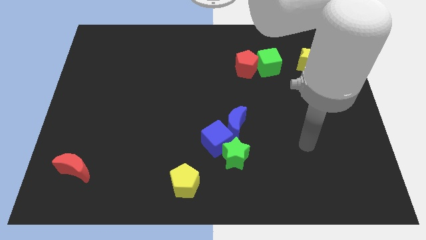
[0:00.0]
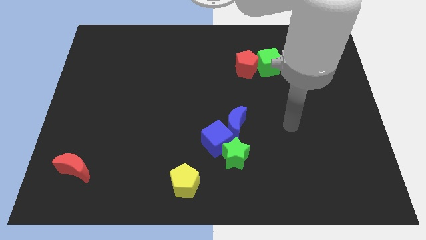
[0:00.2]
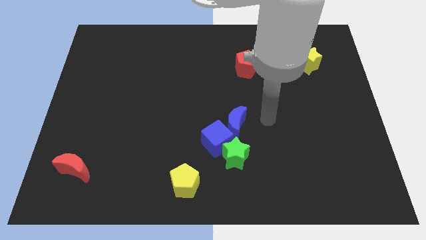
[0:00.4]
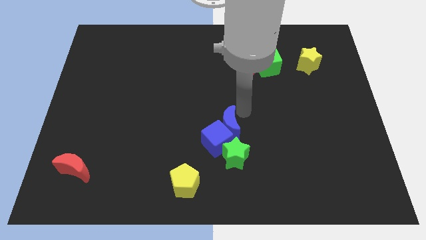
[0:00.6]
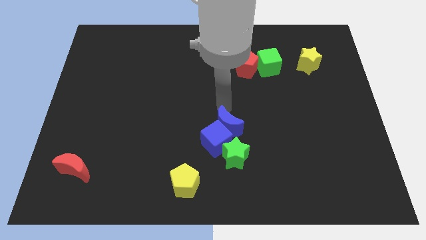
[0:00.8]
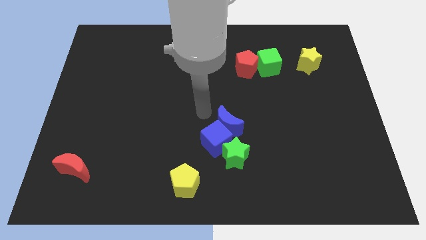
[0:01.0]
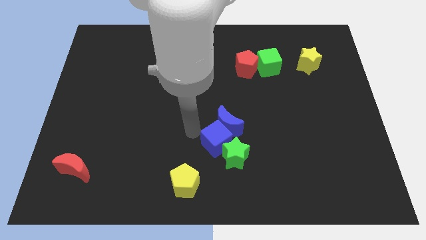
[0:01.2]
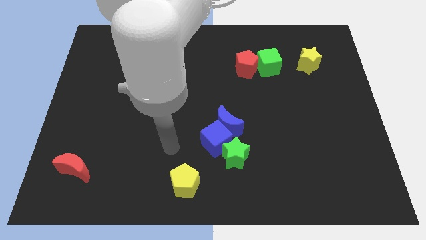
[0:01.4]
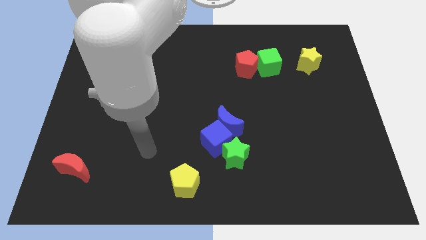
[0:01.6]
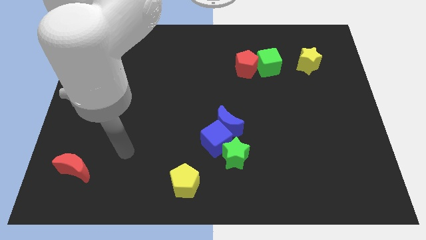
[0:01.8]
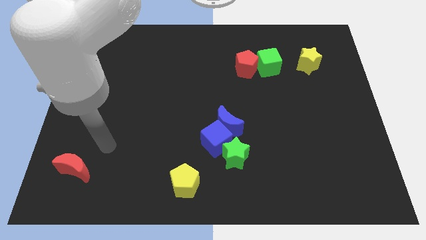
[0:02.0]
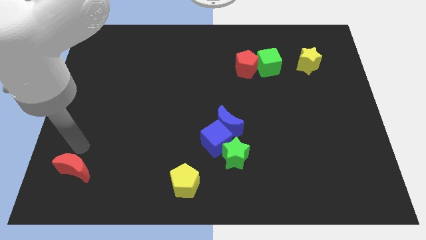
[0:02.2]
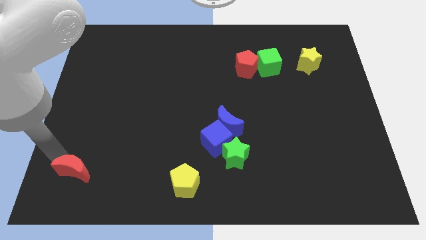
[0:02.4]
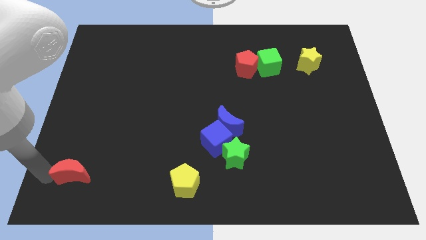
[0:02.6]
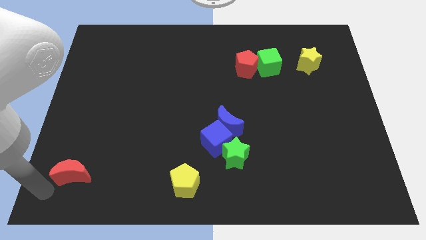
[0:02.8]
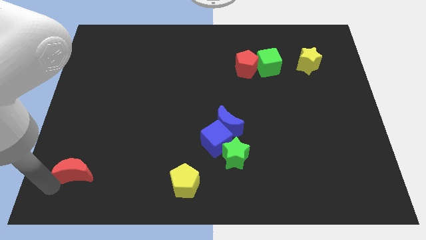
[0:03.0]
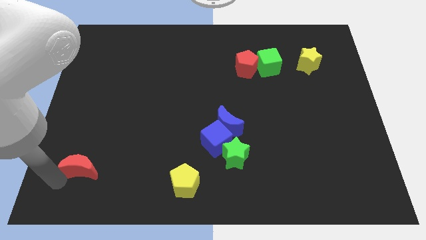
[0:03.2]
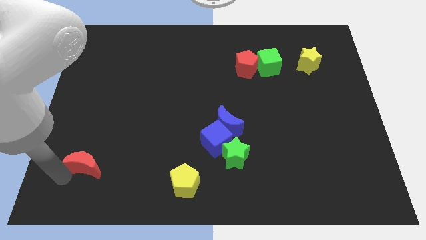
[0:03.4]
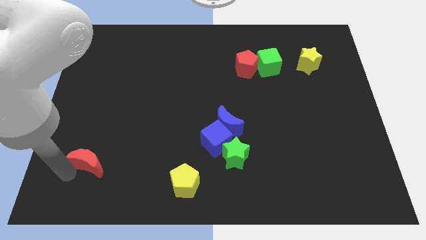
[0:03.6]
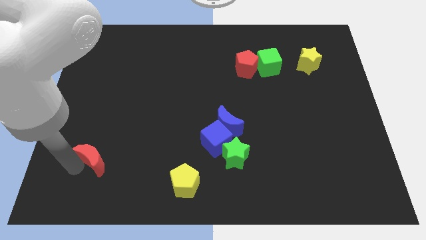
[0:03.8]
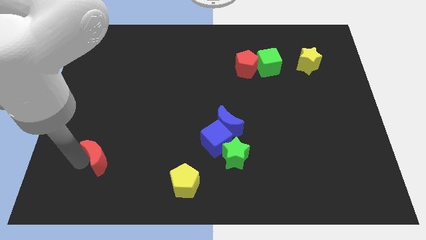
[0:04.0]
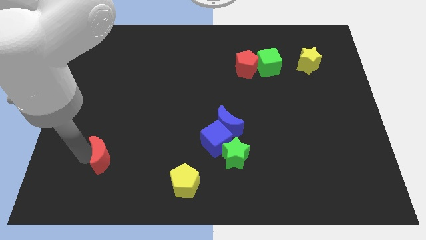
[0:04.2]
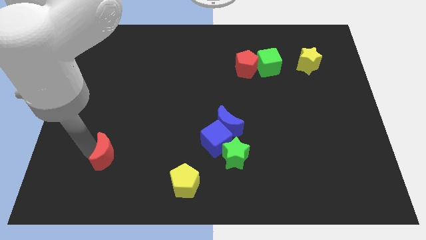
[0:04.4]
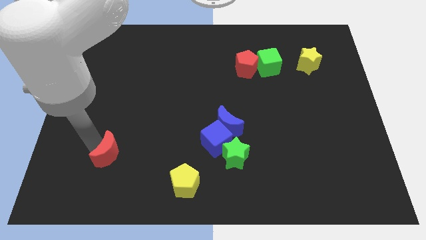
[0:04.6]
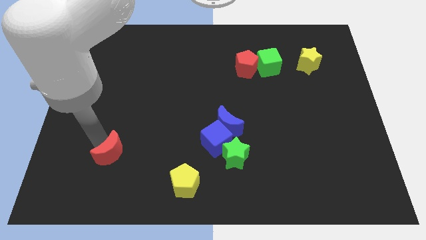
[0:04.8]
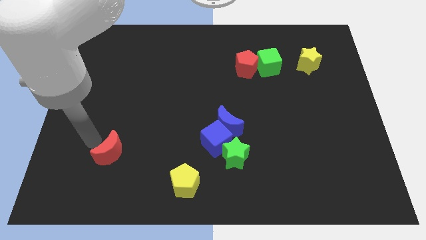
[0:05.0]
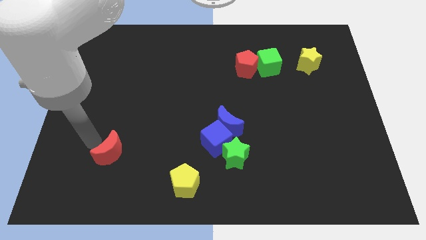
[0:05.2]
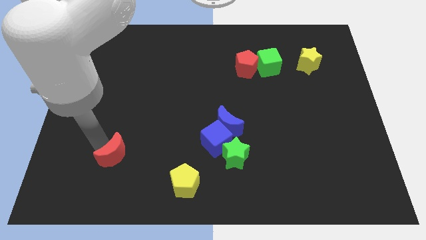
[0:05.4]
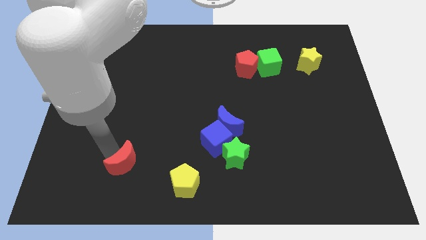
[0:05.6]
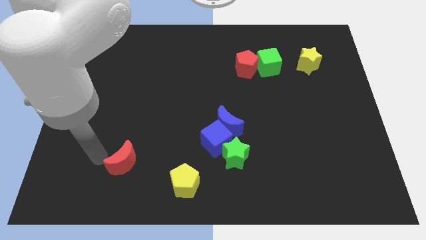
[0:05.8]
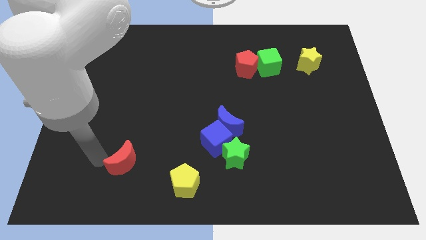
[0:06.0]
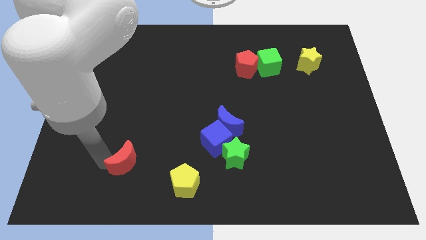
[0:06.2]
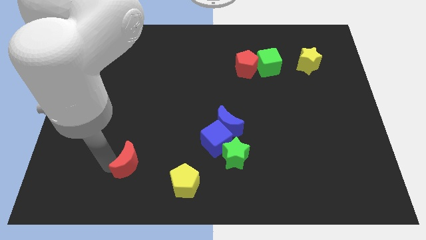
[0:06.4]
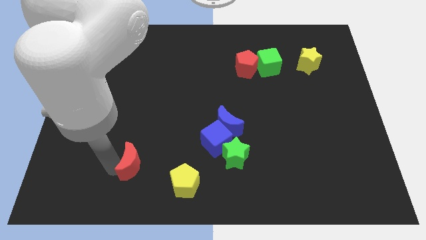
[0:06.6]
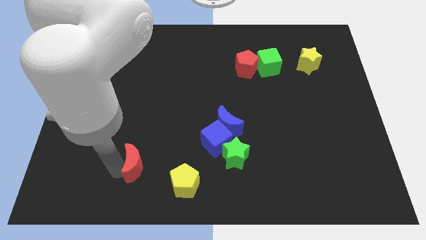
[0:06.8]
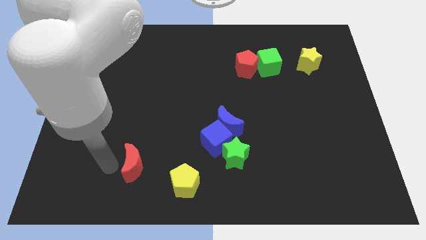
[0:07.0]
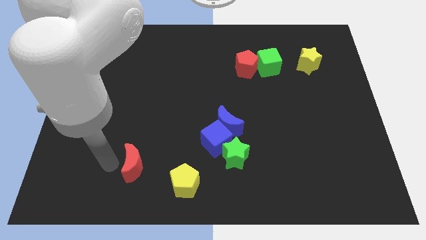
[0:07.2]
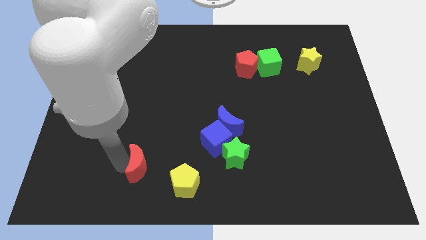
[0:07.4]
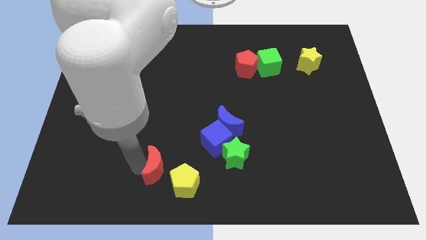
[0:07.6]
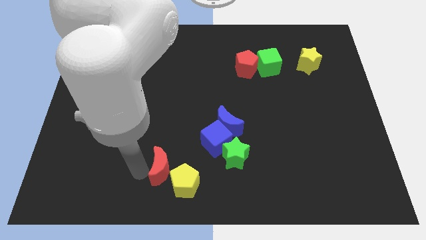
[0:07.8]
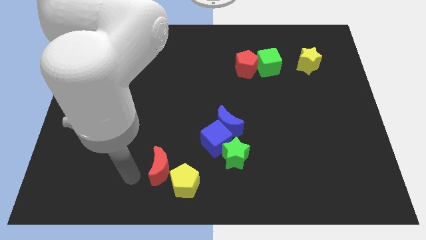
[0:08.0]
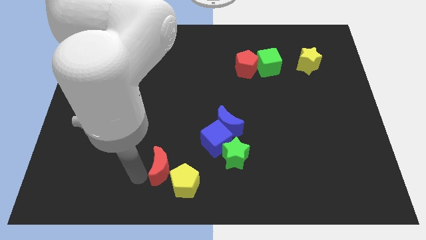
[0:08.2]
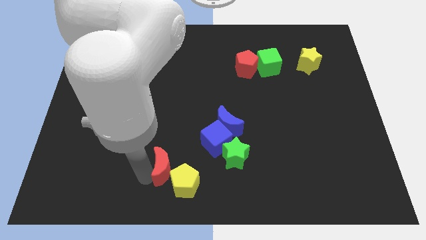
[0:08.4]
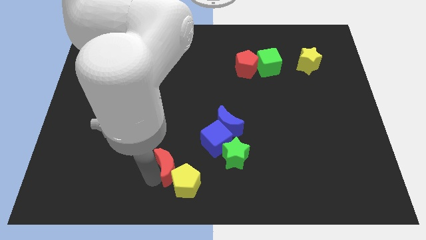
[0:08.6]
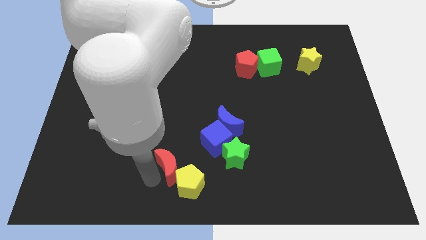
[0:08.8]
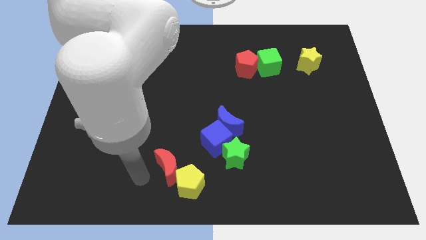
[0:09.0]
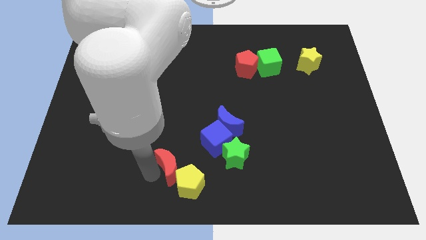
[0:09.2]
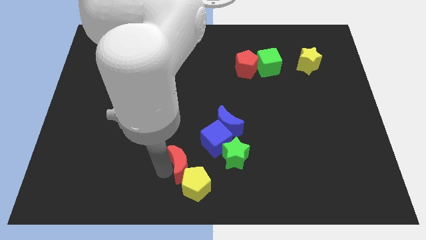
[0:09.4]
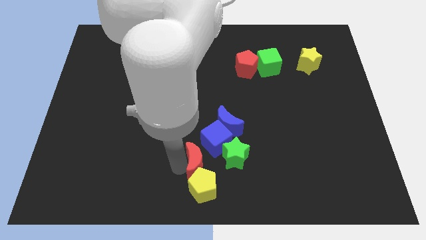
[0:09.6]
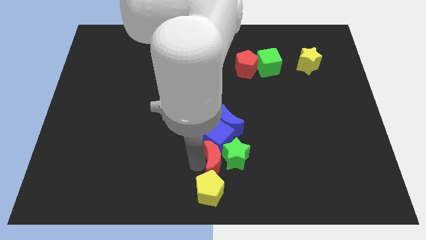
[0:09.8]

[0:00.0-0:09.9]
push the red moon next to the green star

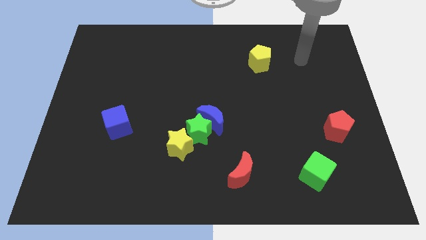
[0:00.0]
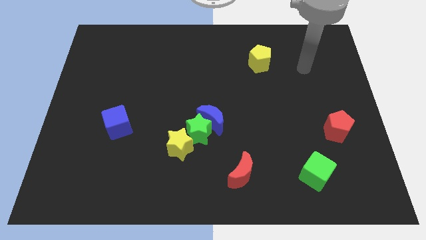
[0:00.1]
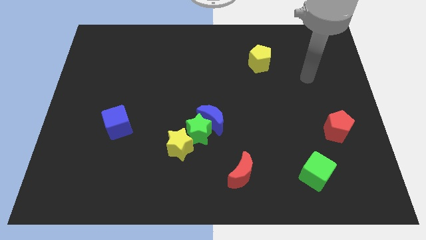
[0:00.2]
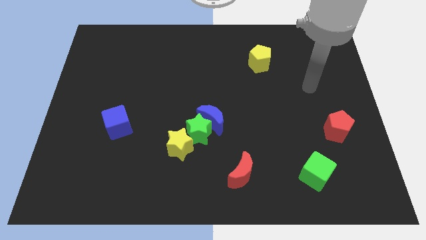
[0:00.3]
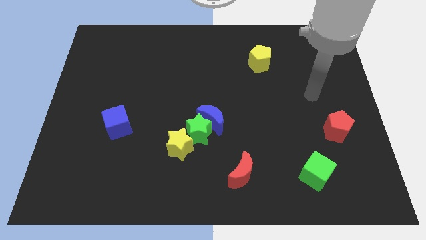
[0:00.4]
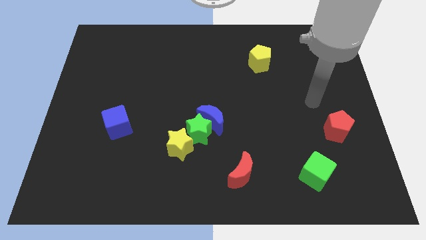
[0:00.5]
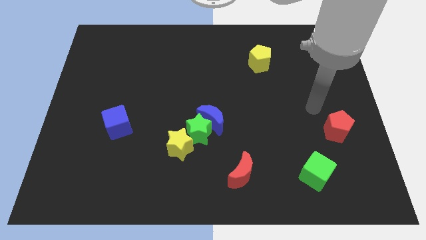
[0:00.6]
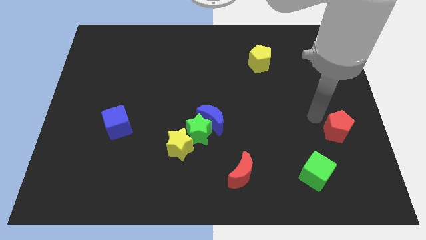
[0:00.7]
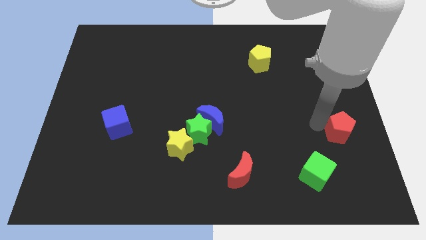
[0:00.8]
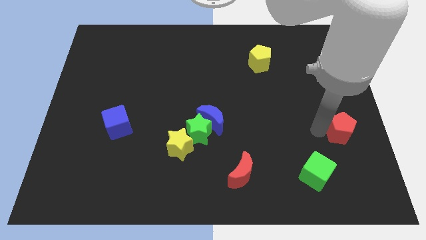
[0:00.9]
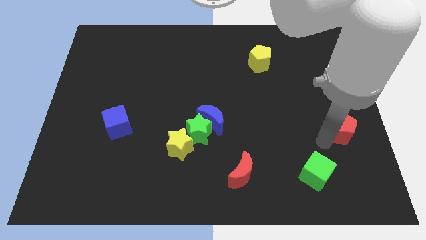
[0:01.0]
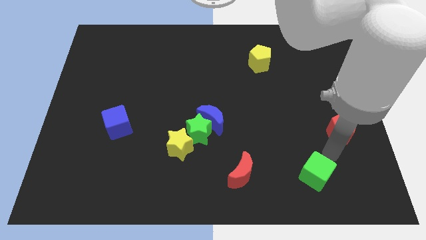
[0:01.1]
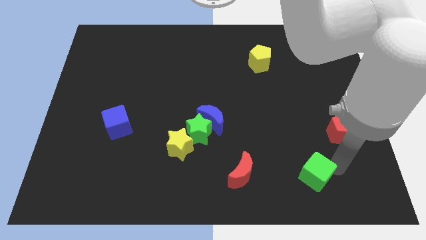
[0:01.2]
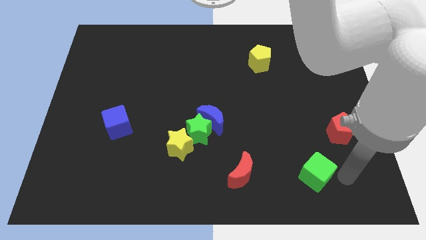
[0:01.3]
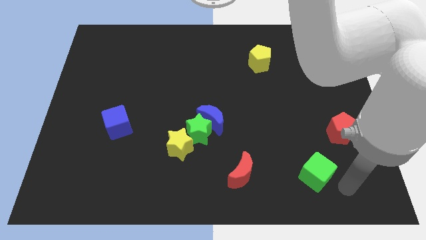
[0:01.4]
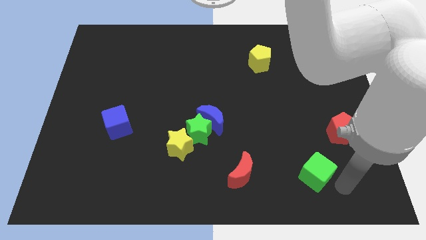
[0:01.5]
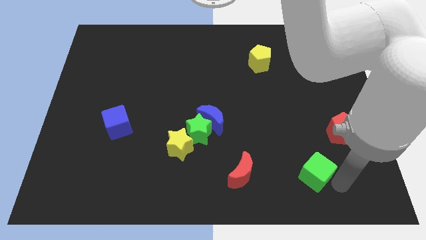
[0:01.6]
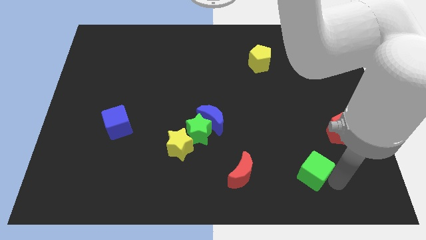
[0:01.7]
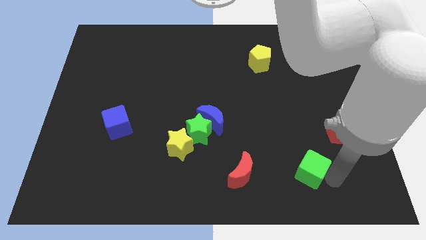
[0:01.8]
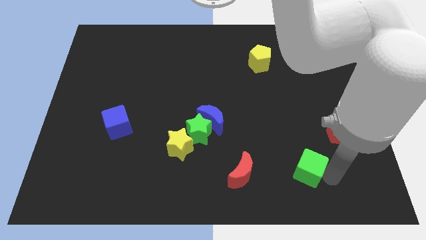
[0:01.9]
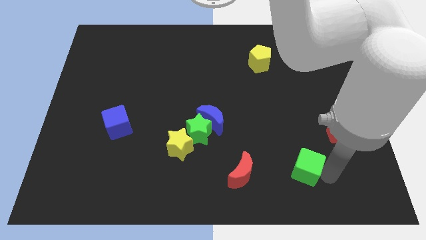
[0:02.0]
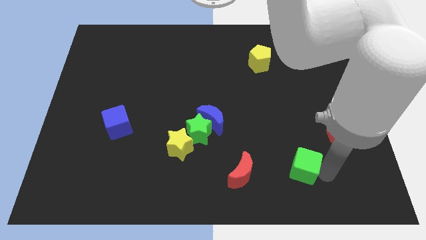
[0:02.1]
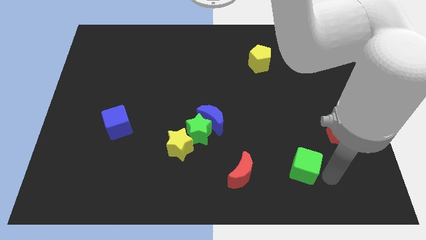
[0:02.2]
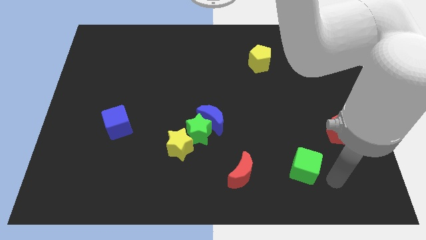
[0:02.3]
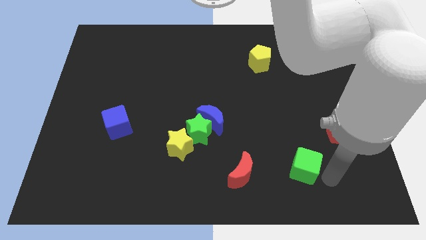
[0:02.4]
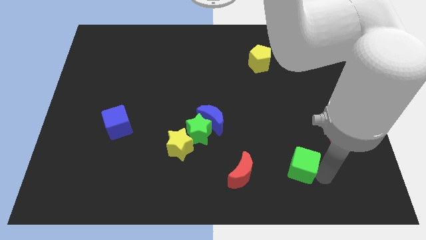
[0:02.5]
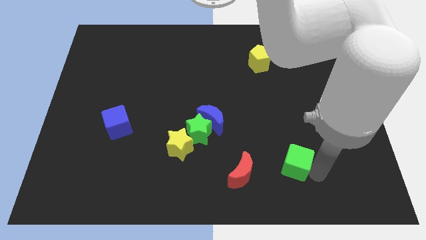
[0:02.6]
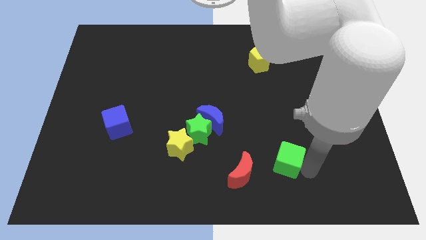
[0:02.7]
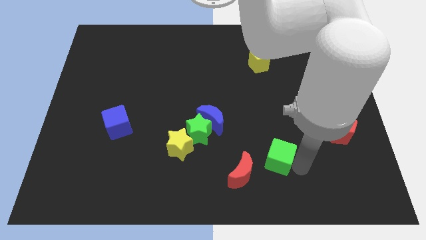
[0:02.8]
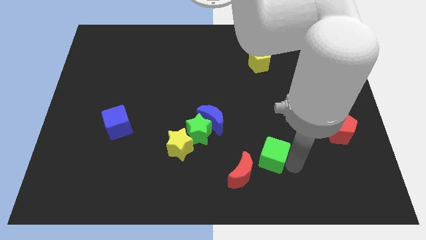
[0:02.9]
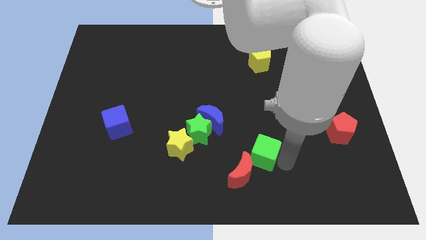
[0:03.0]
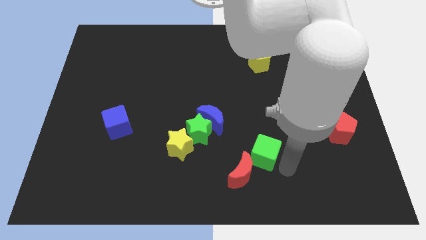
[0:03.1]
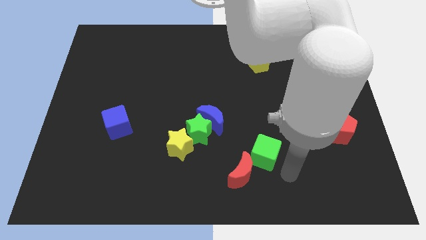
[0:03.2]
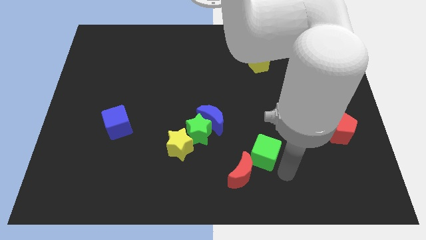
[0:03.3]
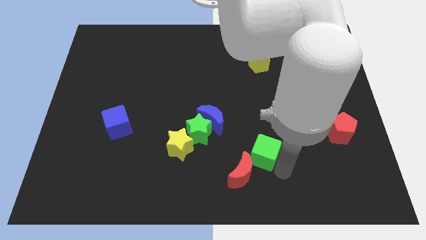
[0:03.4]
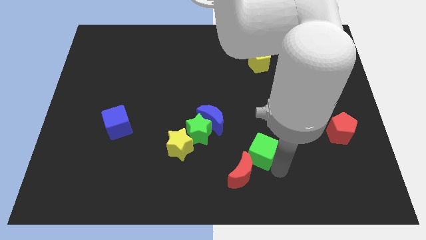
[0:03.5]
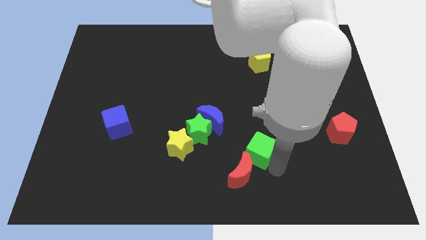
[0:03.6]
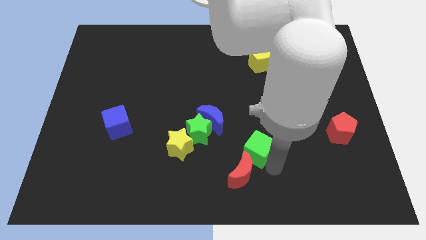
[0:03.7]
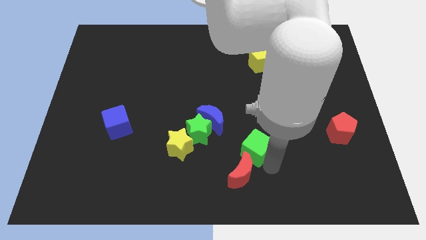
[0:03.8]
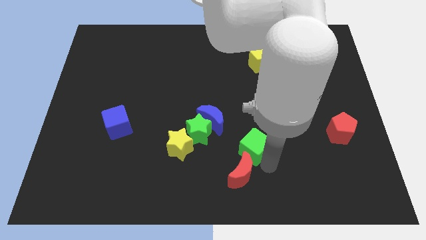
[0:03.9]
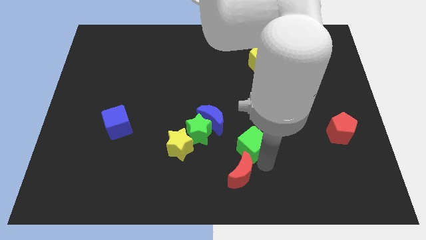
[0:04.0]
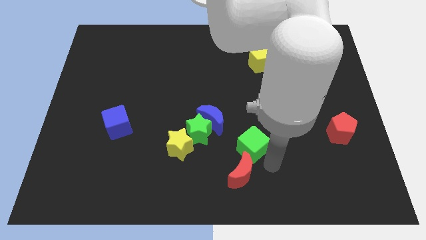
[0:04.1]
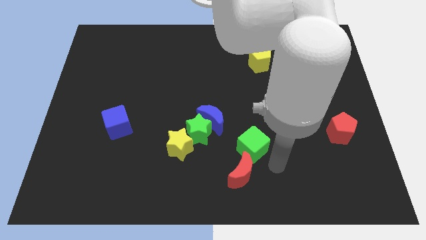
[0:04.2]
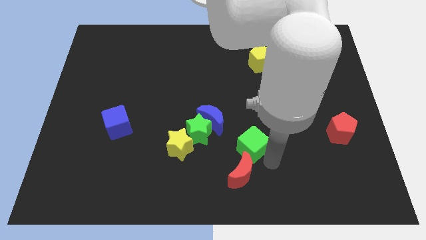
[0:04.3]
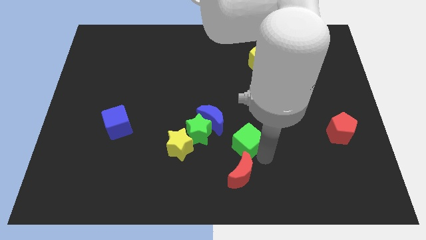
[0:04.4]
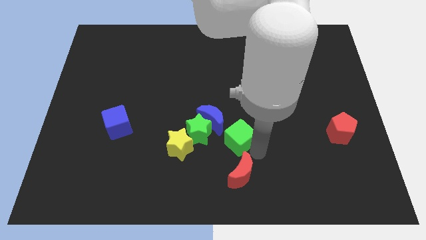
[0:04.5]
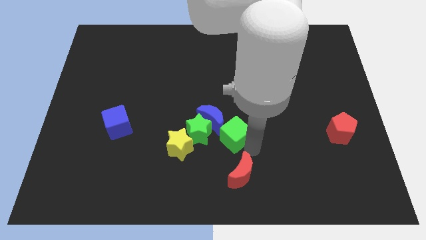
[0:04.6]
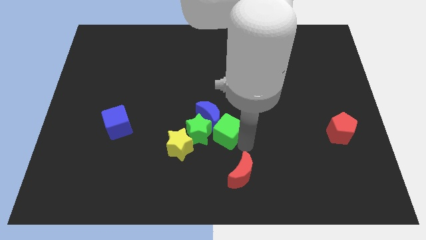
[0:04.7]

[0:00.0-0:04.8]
move the green cube to the blue moon
